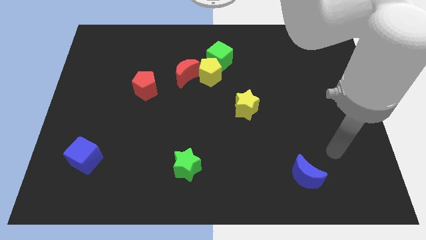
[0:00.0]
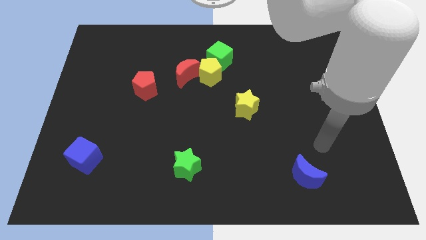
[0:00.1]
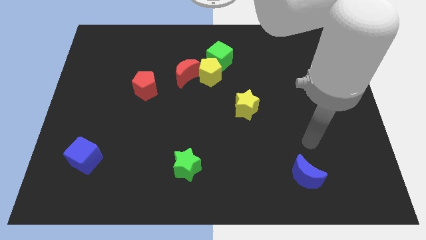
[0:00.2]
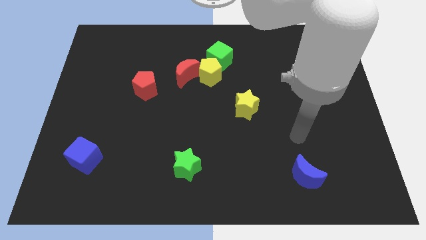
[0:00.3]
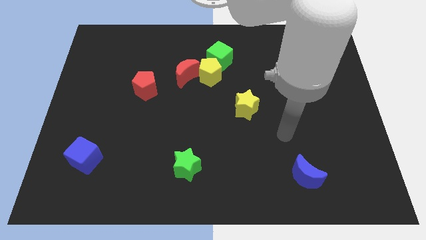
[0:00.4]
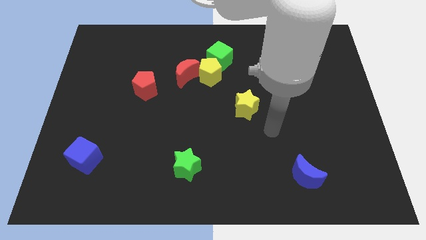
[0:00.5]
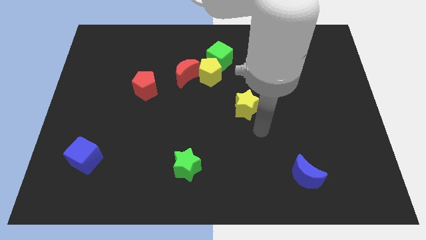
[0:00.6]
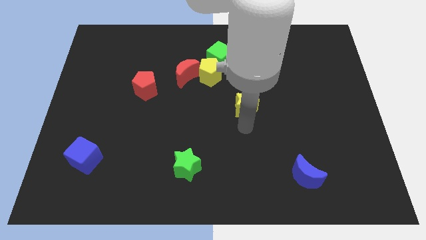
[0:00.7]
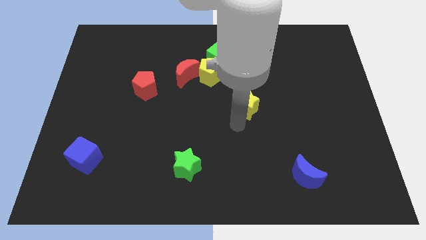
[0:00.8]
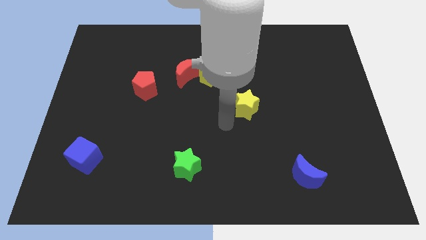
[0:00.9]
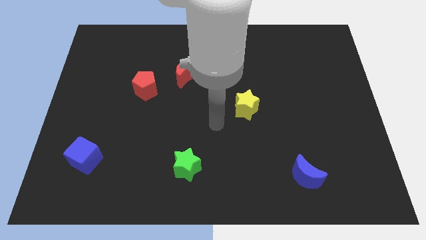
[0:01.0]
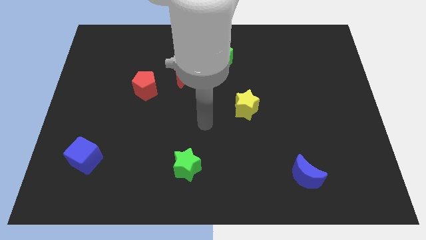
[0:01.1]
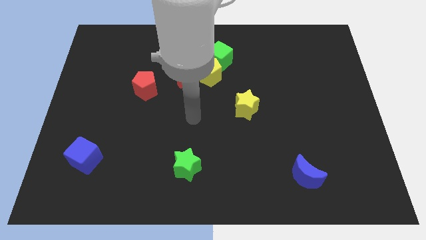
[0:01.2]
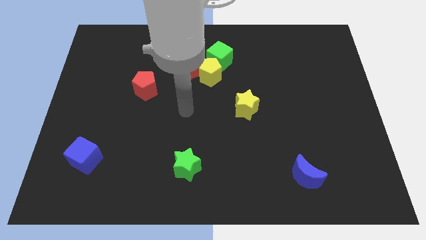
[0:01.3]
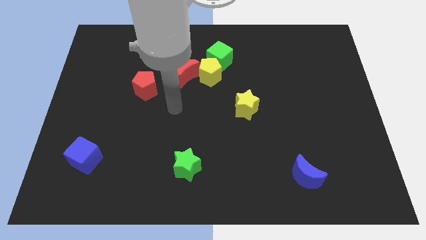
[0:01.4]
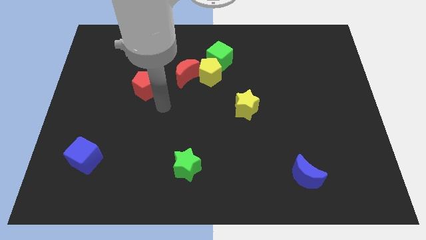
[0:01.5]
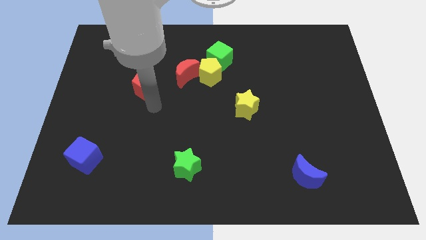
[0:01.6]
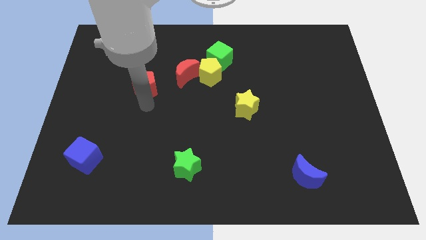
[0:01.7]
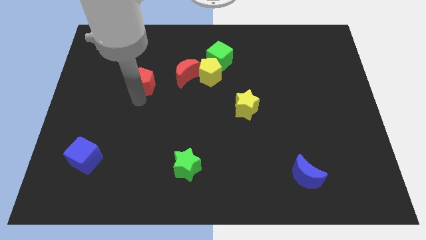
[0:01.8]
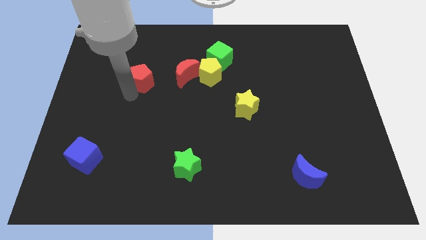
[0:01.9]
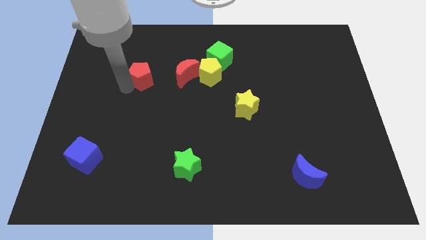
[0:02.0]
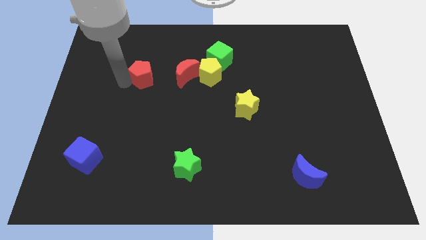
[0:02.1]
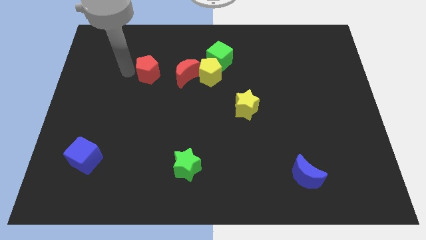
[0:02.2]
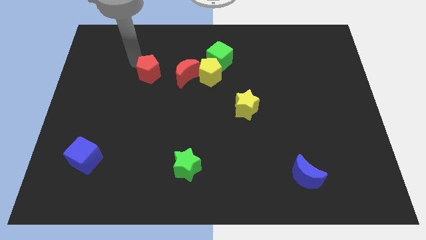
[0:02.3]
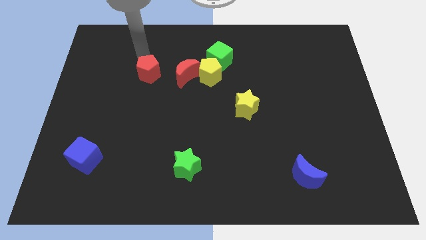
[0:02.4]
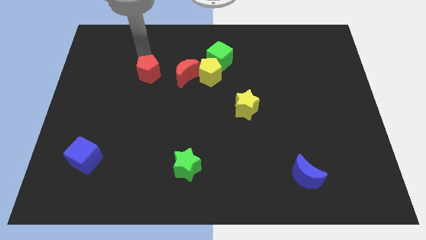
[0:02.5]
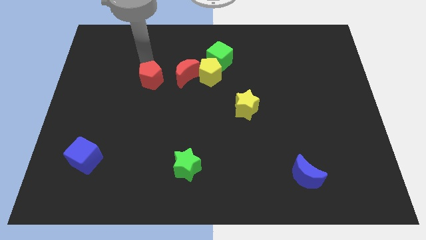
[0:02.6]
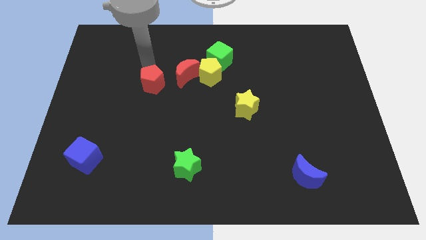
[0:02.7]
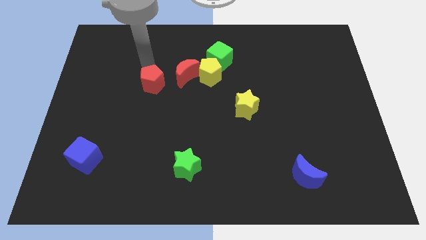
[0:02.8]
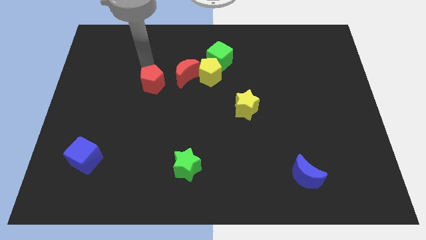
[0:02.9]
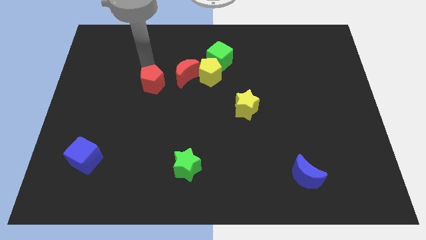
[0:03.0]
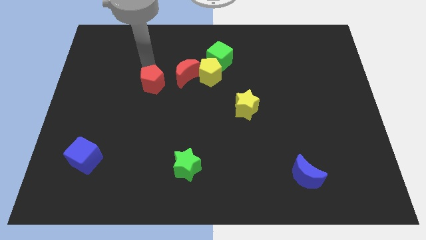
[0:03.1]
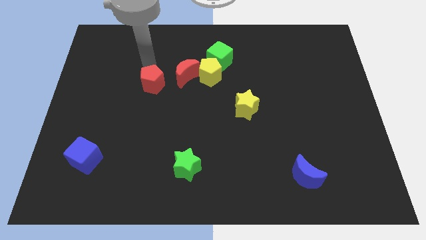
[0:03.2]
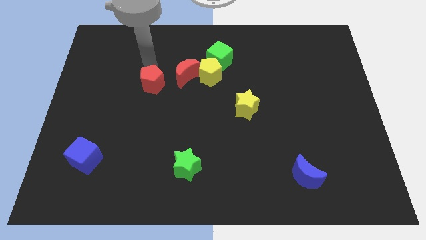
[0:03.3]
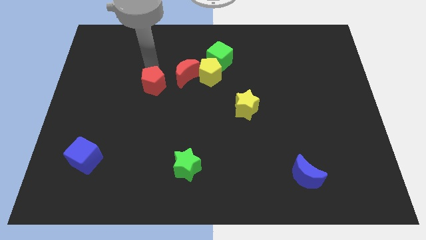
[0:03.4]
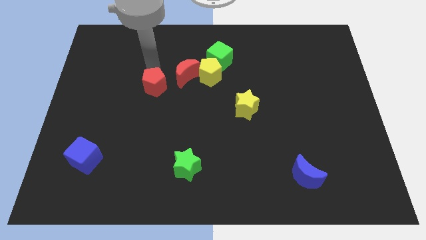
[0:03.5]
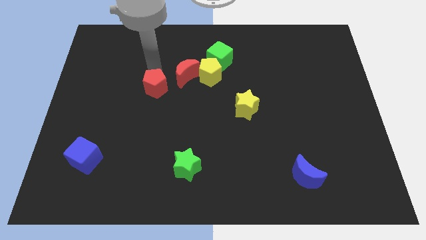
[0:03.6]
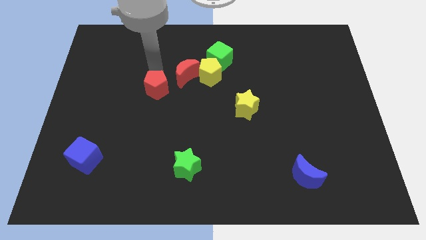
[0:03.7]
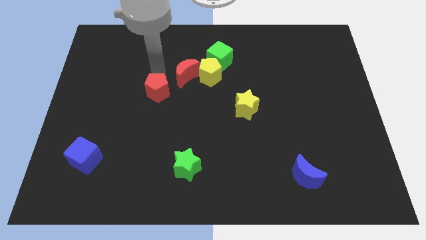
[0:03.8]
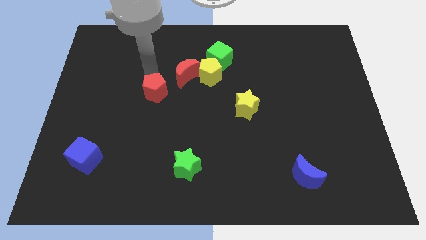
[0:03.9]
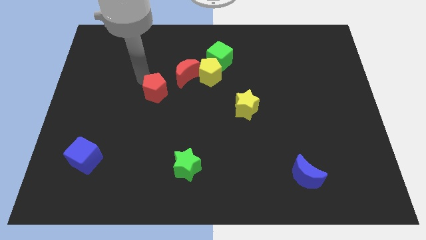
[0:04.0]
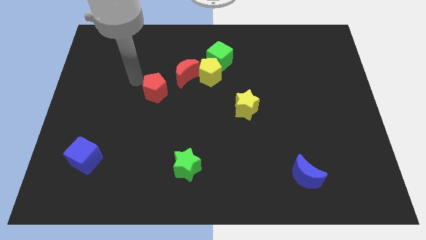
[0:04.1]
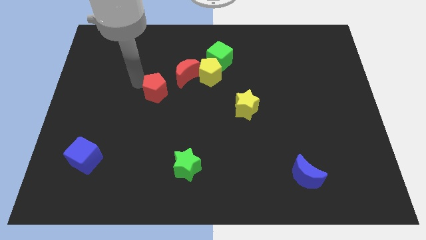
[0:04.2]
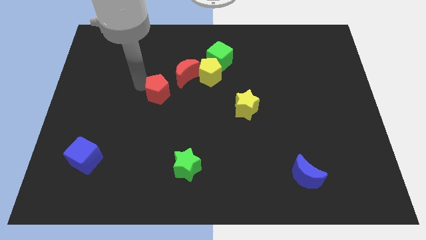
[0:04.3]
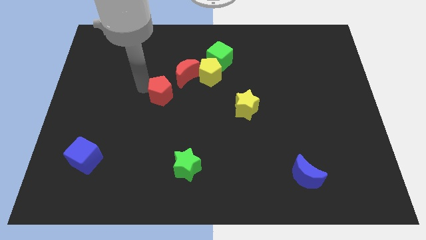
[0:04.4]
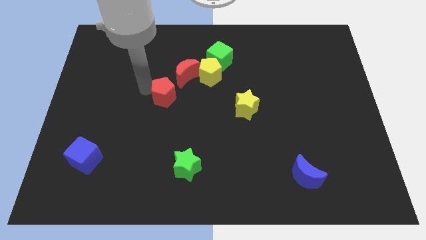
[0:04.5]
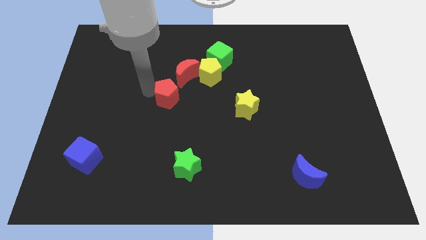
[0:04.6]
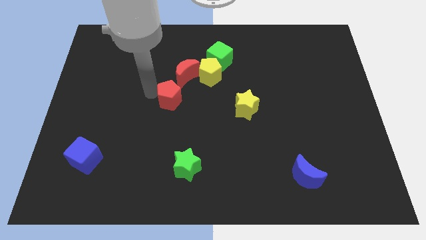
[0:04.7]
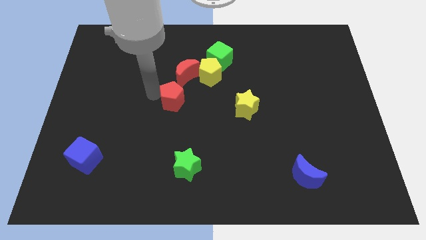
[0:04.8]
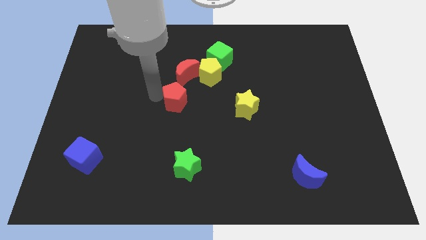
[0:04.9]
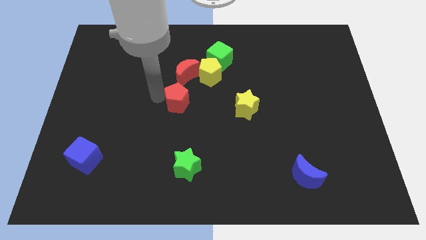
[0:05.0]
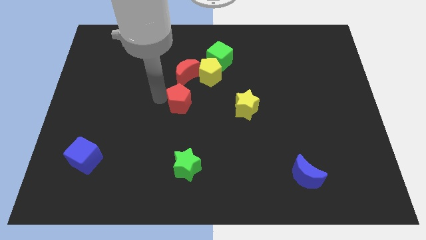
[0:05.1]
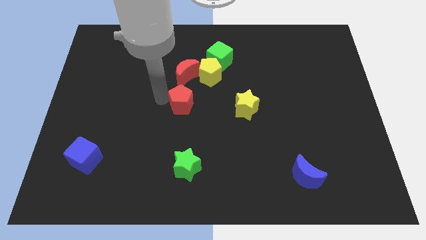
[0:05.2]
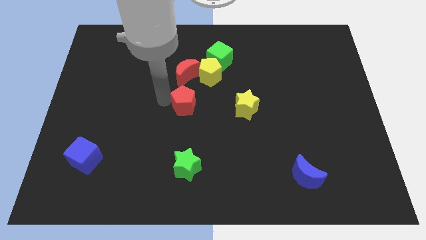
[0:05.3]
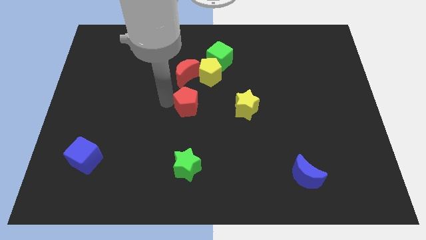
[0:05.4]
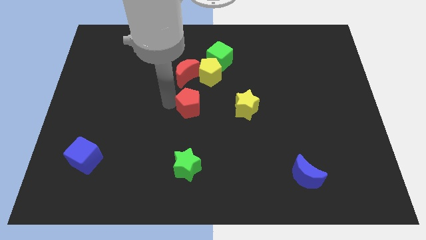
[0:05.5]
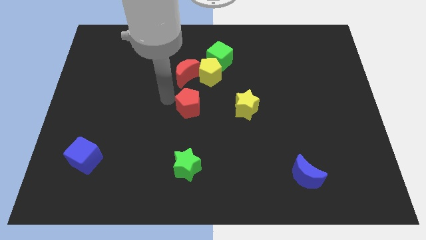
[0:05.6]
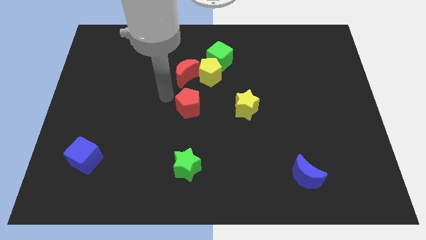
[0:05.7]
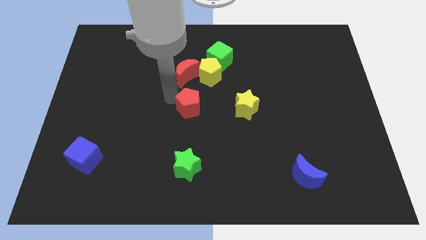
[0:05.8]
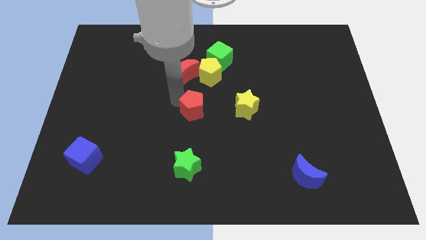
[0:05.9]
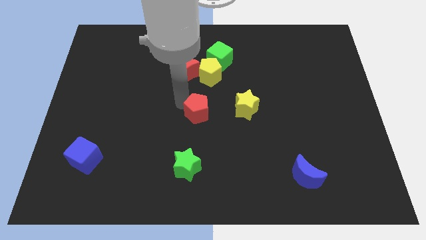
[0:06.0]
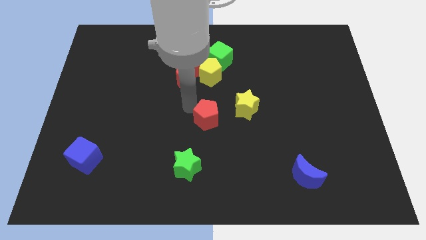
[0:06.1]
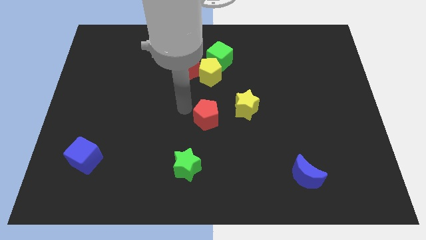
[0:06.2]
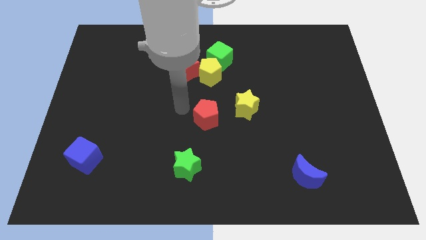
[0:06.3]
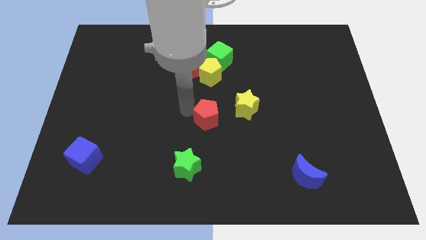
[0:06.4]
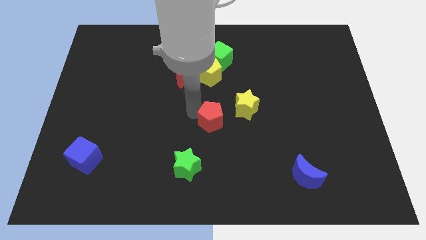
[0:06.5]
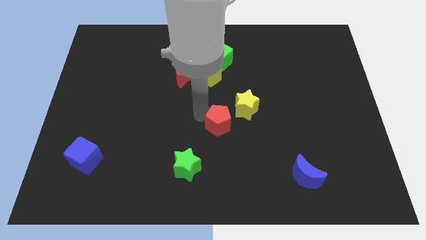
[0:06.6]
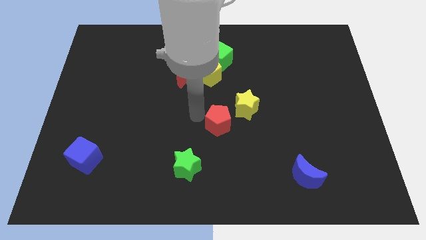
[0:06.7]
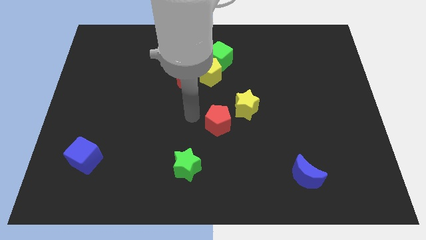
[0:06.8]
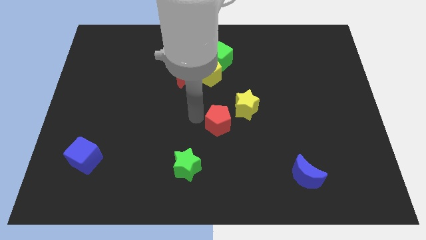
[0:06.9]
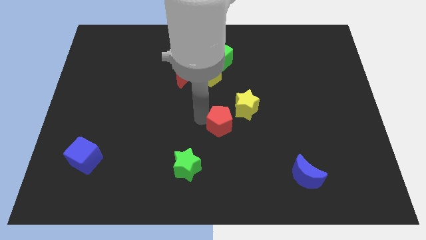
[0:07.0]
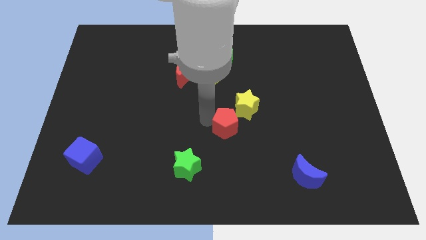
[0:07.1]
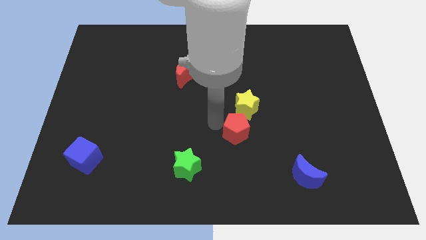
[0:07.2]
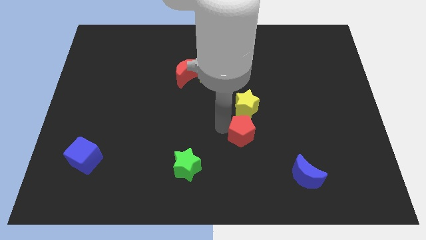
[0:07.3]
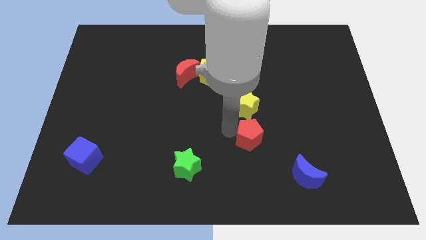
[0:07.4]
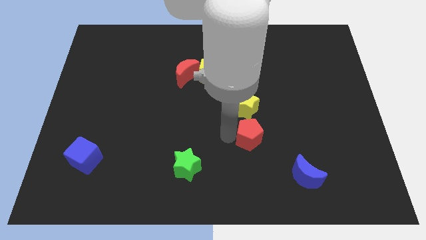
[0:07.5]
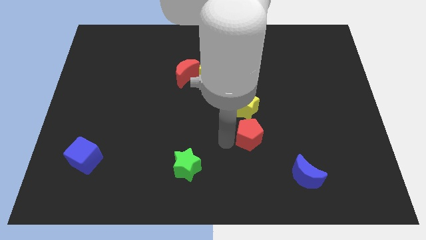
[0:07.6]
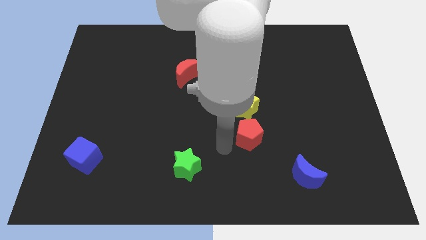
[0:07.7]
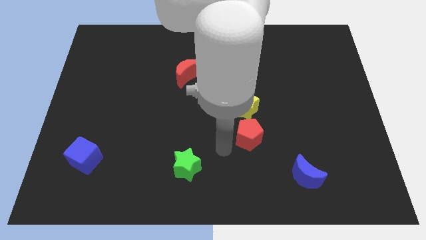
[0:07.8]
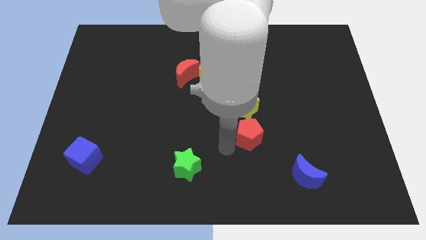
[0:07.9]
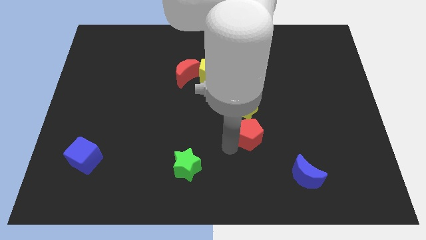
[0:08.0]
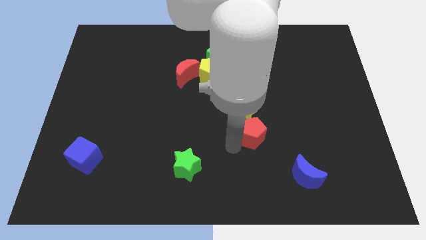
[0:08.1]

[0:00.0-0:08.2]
push the red pentagon diagonally down and to the right of the yellow star
